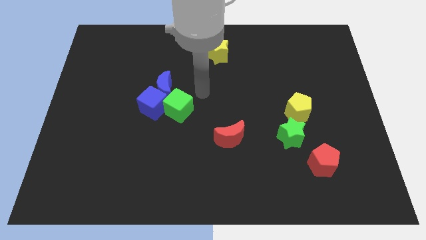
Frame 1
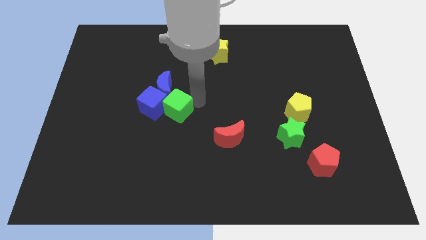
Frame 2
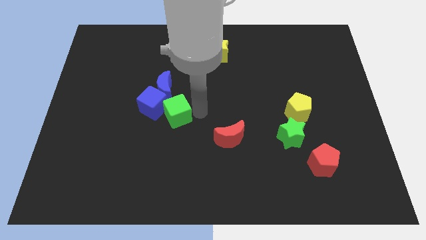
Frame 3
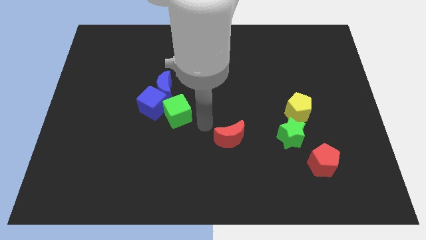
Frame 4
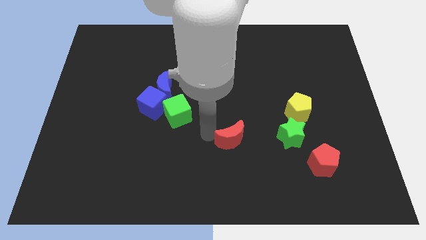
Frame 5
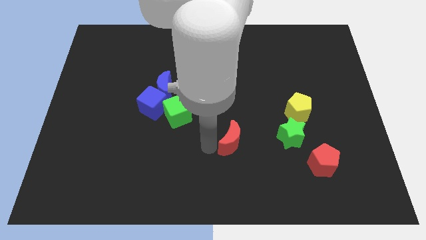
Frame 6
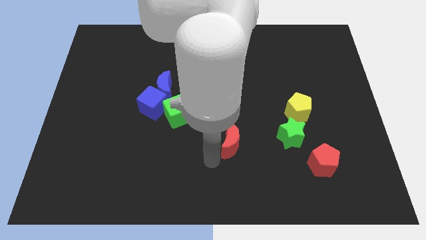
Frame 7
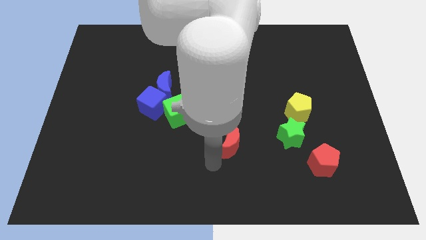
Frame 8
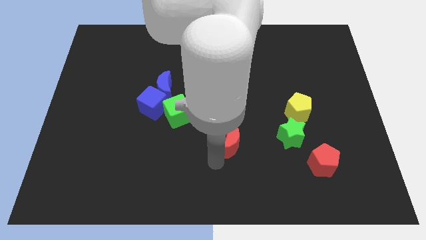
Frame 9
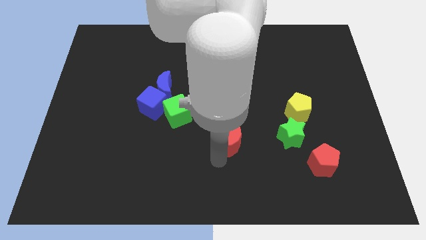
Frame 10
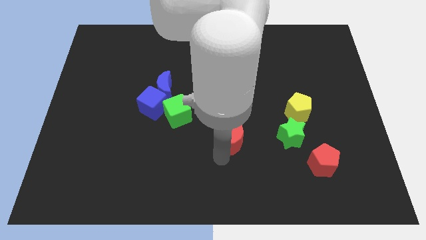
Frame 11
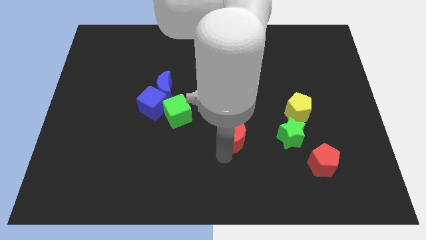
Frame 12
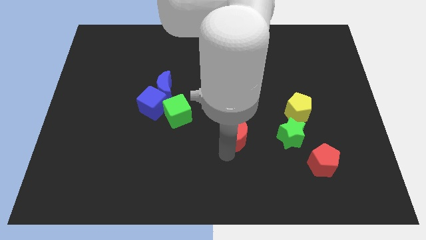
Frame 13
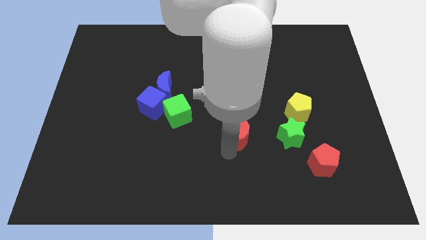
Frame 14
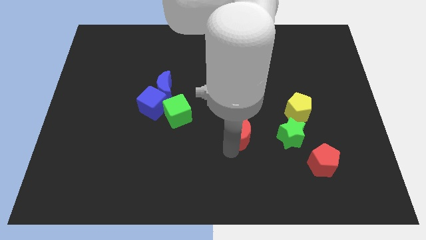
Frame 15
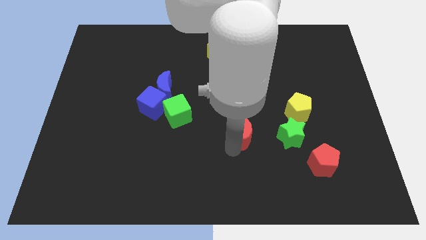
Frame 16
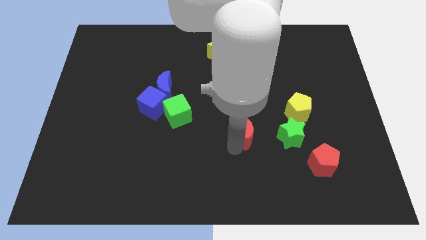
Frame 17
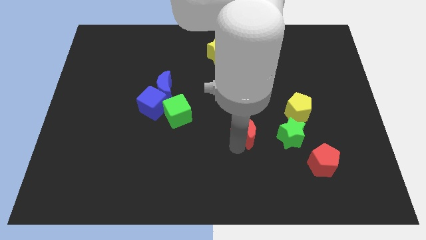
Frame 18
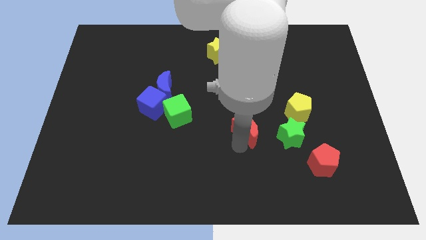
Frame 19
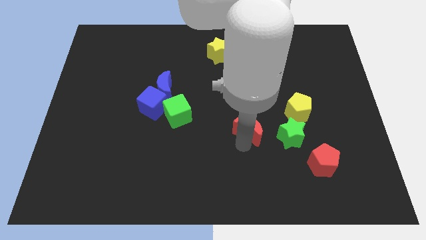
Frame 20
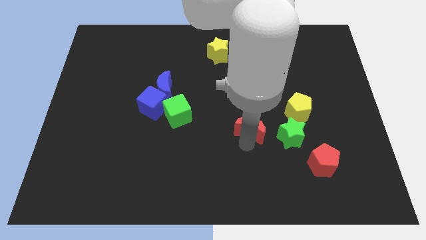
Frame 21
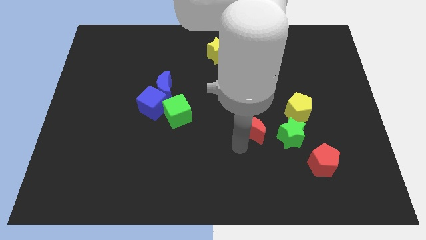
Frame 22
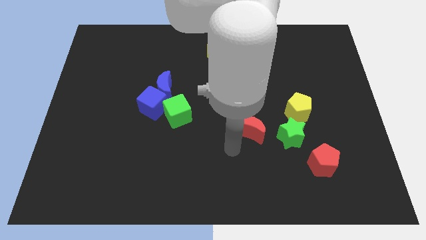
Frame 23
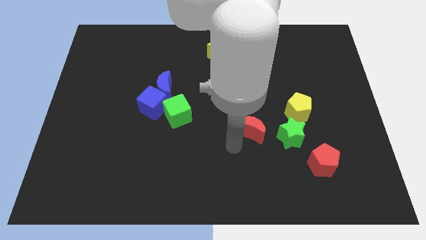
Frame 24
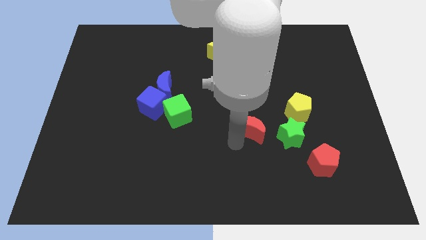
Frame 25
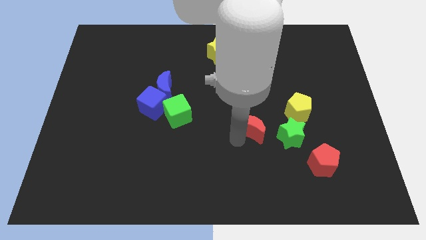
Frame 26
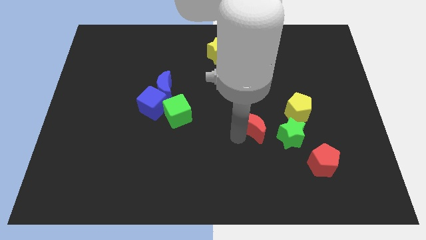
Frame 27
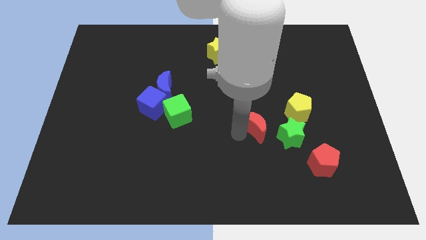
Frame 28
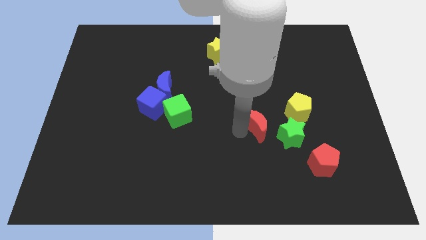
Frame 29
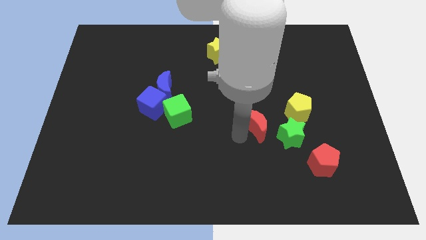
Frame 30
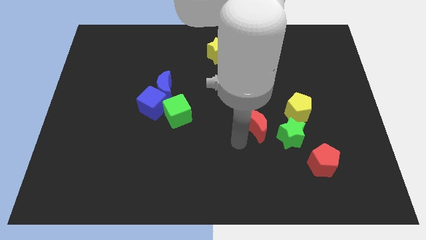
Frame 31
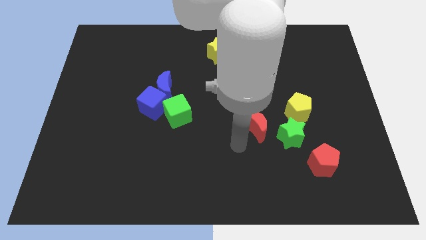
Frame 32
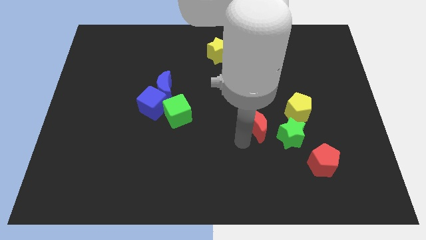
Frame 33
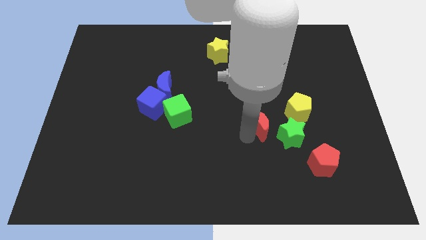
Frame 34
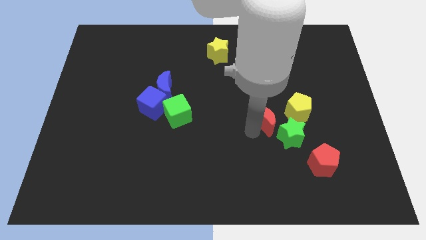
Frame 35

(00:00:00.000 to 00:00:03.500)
slightly push the red moon upwards and to the right

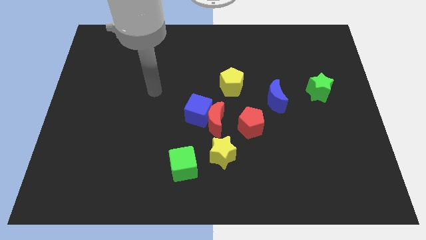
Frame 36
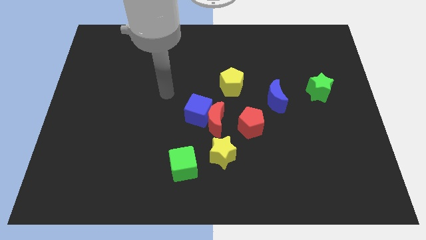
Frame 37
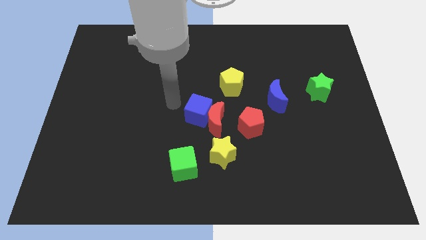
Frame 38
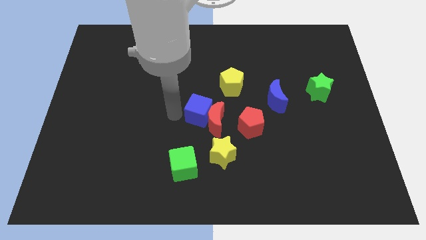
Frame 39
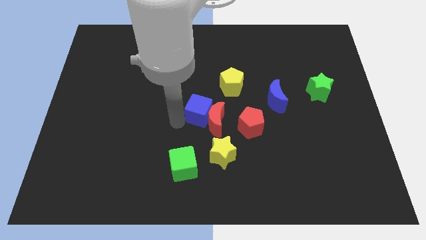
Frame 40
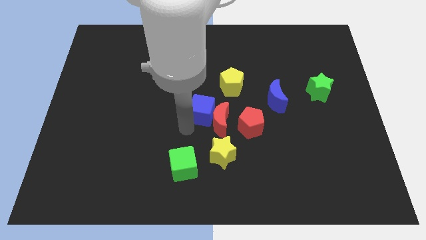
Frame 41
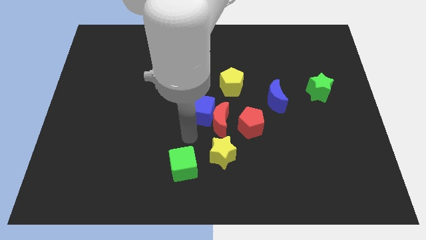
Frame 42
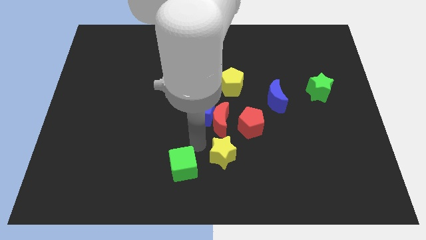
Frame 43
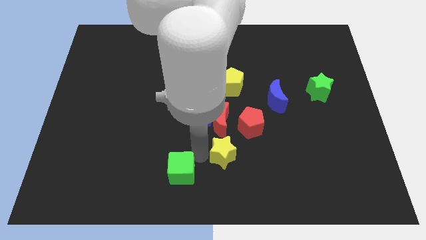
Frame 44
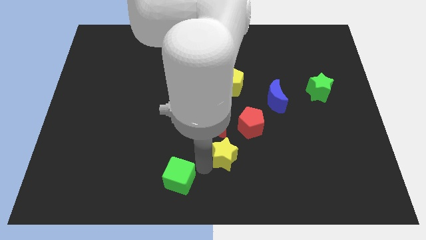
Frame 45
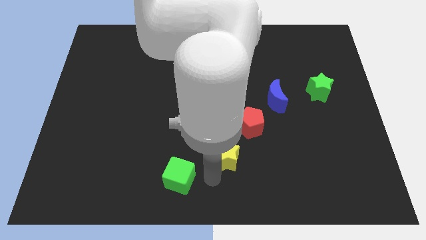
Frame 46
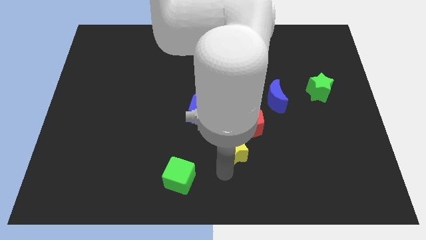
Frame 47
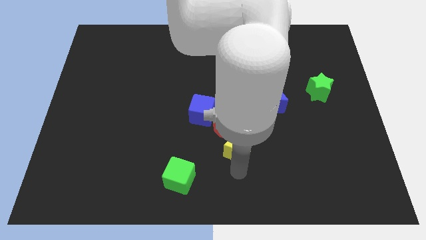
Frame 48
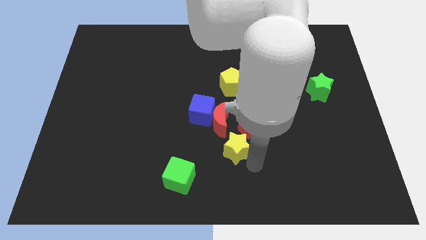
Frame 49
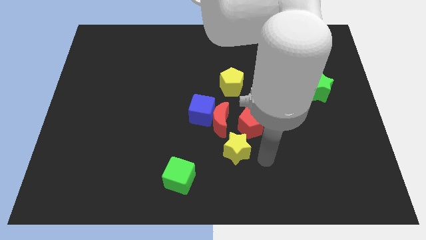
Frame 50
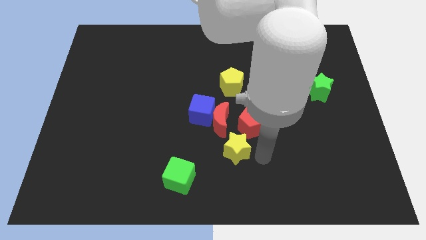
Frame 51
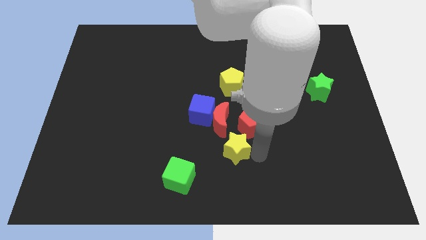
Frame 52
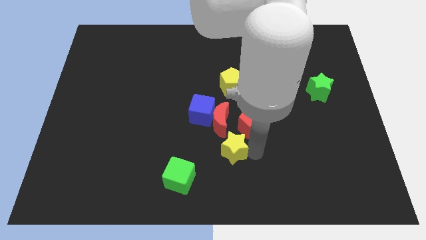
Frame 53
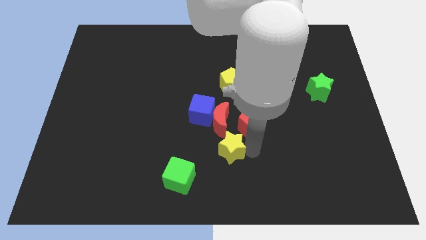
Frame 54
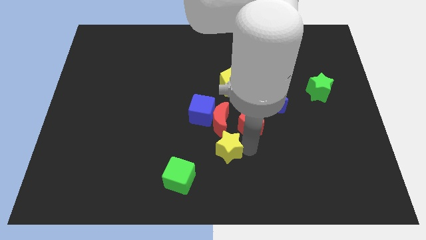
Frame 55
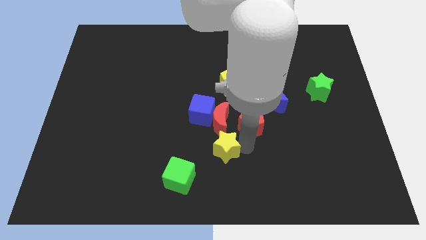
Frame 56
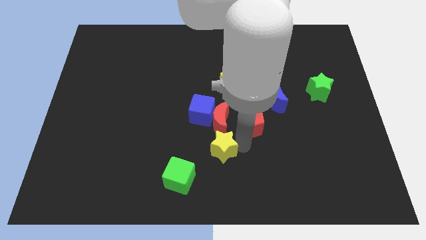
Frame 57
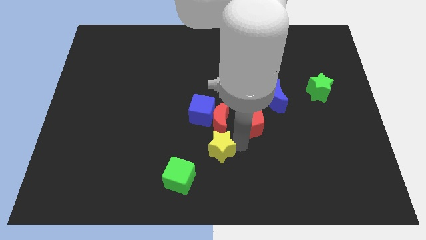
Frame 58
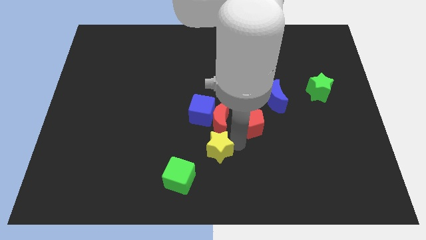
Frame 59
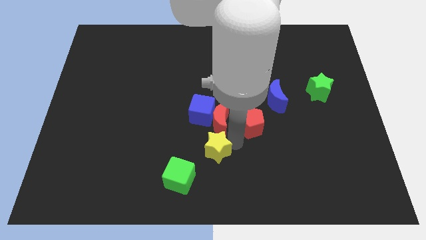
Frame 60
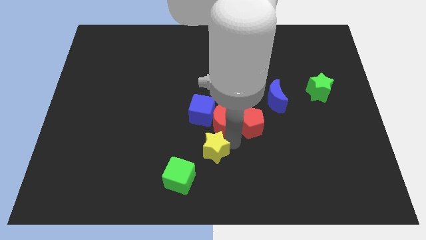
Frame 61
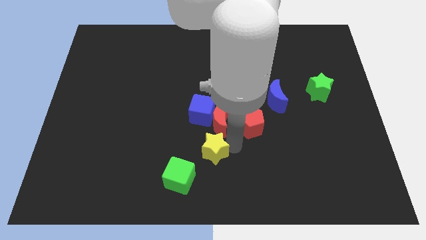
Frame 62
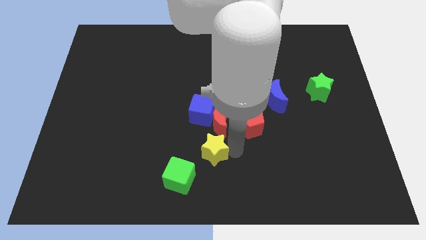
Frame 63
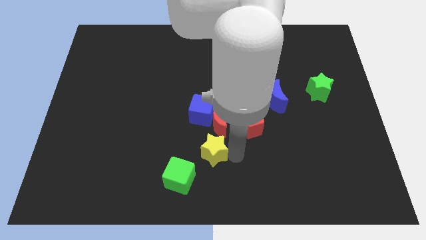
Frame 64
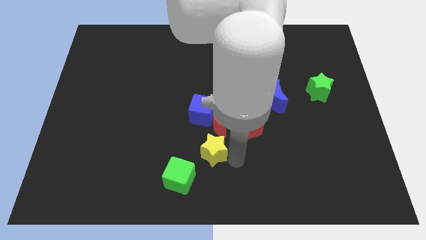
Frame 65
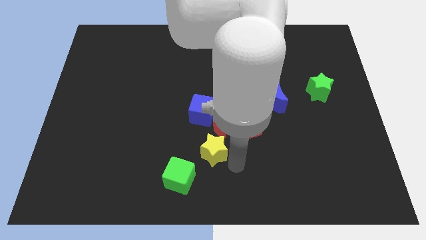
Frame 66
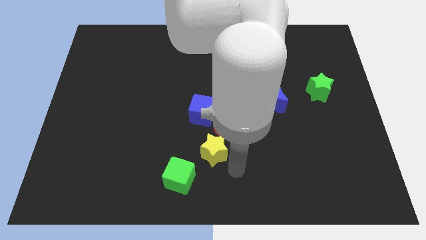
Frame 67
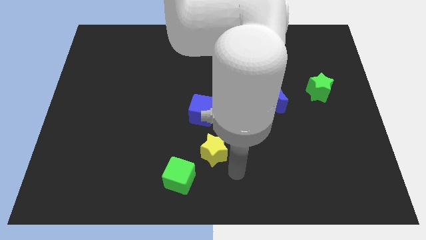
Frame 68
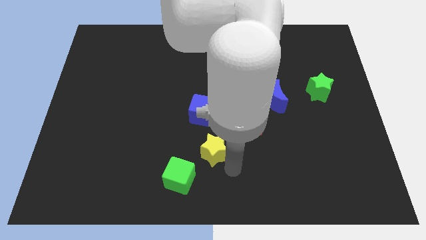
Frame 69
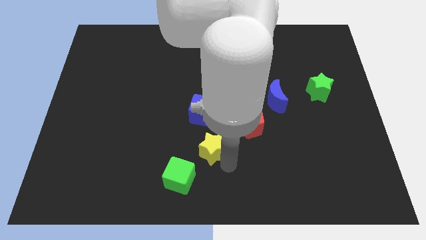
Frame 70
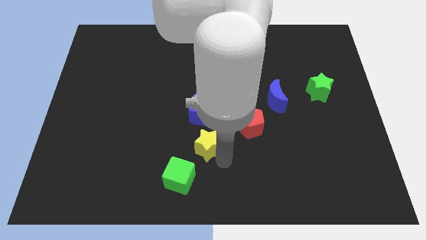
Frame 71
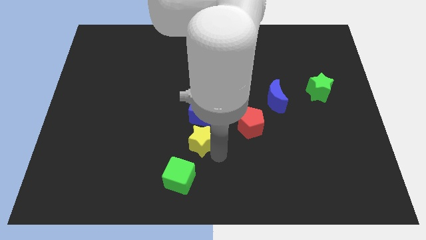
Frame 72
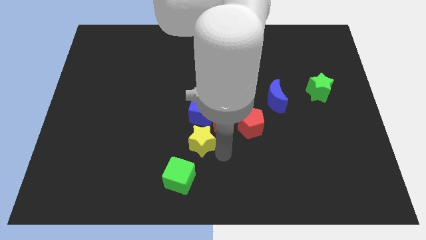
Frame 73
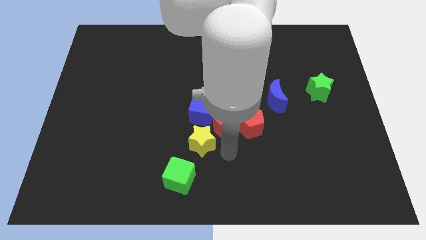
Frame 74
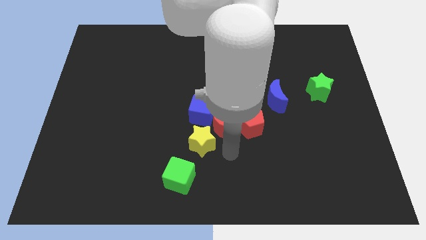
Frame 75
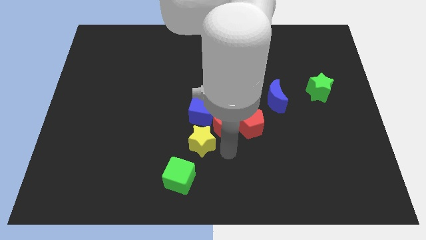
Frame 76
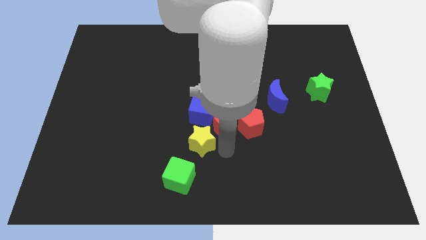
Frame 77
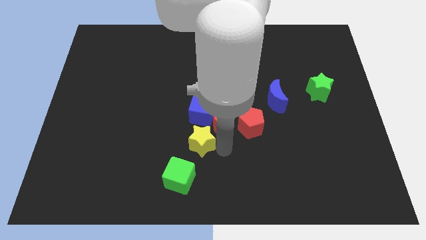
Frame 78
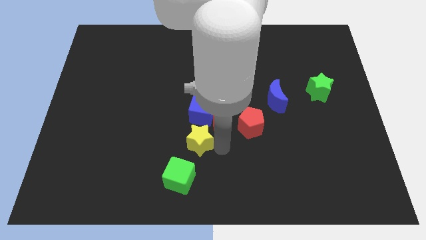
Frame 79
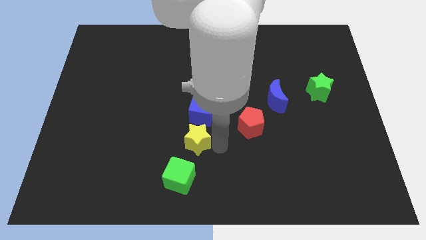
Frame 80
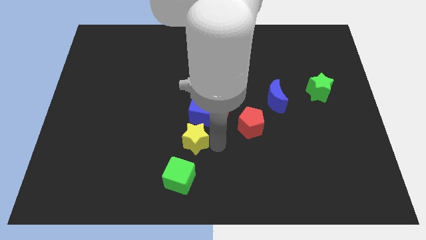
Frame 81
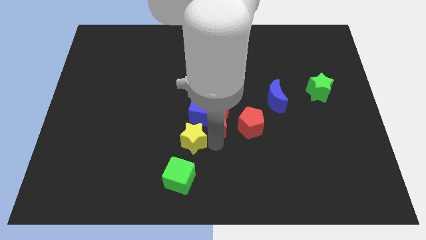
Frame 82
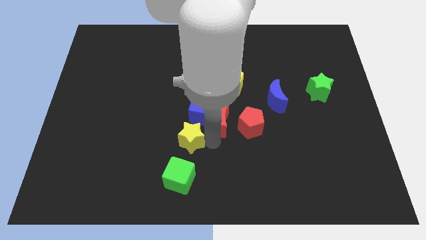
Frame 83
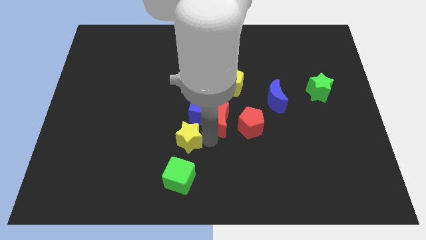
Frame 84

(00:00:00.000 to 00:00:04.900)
slightly move the yellow star left
